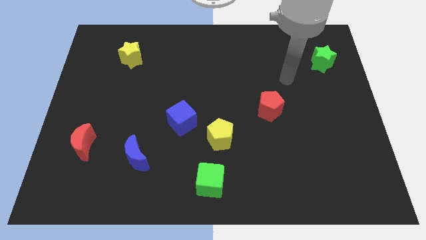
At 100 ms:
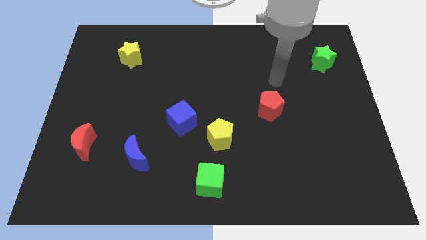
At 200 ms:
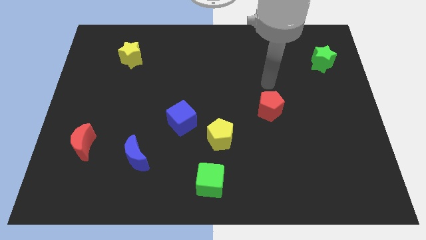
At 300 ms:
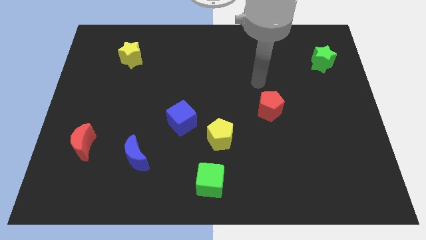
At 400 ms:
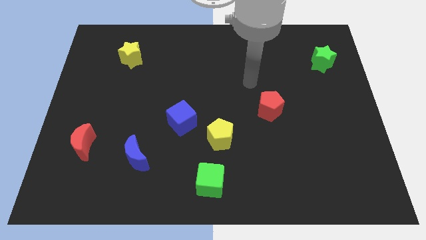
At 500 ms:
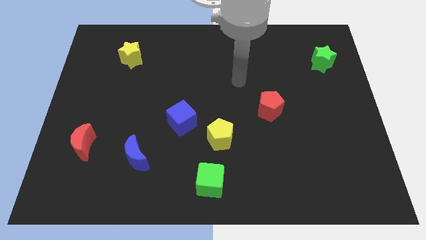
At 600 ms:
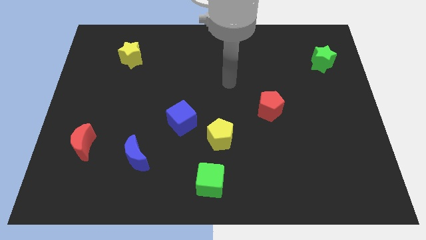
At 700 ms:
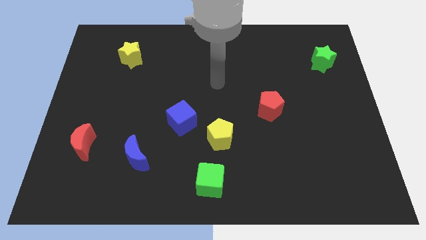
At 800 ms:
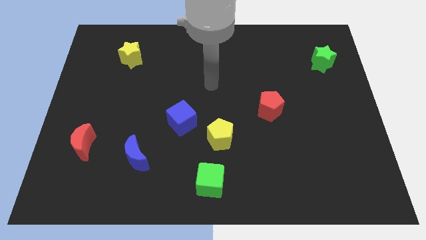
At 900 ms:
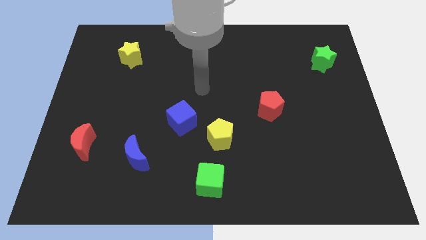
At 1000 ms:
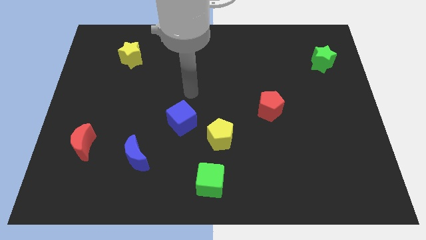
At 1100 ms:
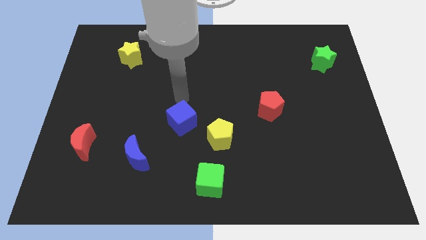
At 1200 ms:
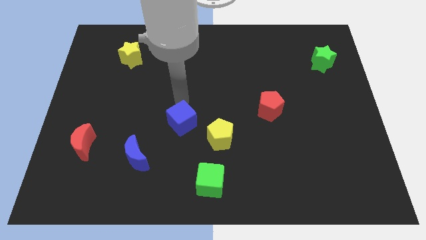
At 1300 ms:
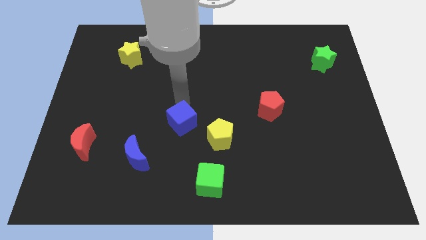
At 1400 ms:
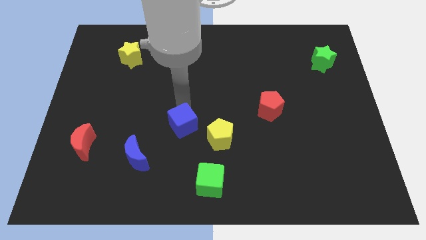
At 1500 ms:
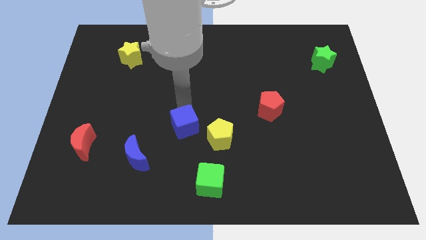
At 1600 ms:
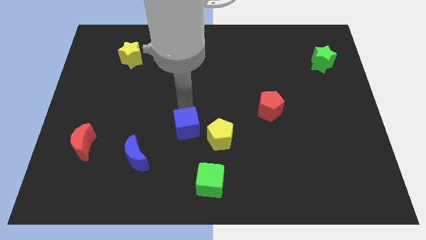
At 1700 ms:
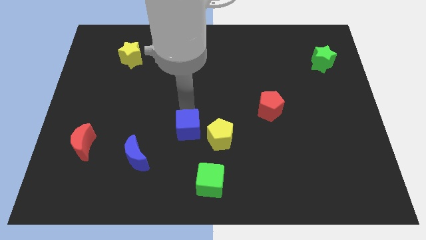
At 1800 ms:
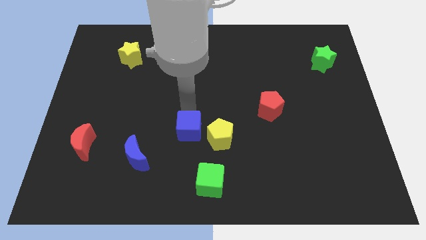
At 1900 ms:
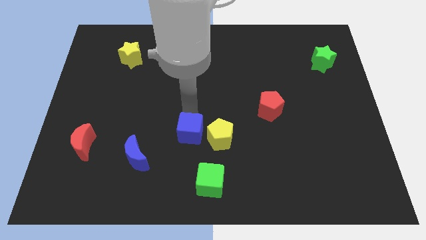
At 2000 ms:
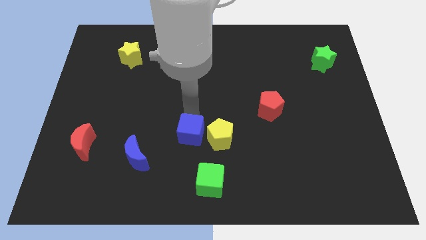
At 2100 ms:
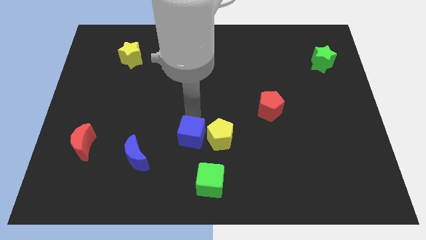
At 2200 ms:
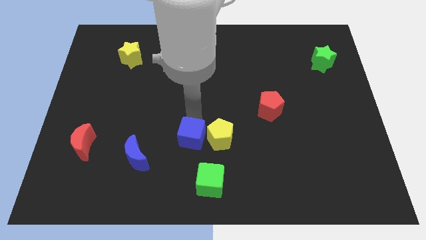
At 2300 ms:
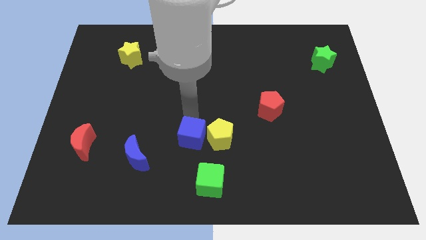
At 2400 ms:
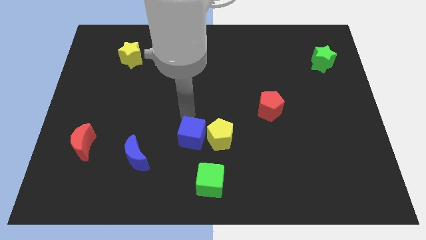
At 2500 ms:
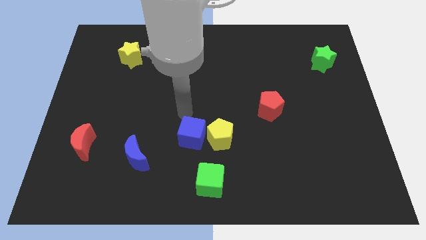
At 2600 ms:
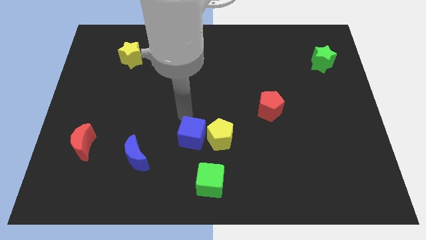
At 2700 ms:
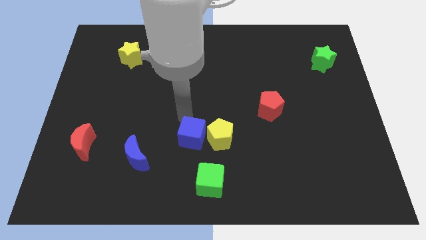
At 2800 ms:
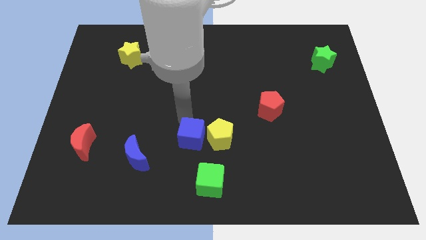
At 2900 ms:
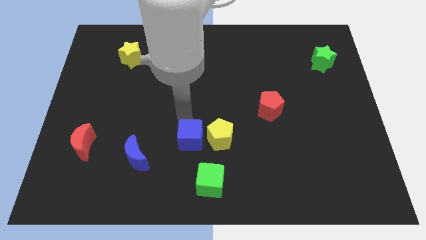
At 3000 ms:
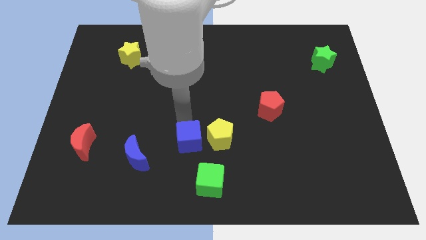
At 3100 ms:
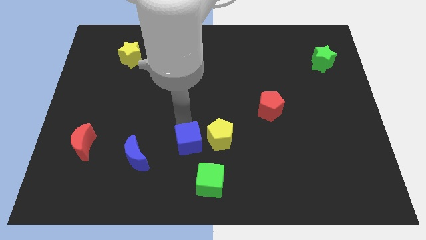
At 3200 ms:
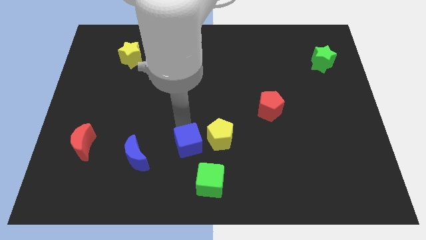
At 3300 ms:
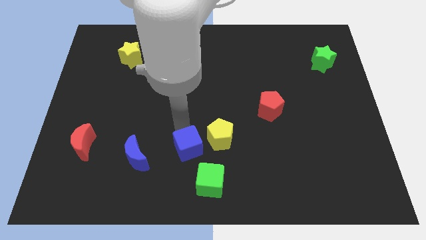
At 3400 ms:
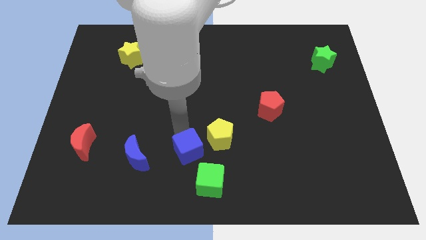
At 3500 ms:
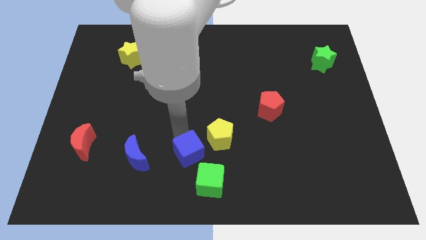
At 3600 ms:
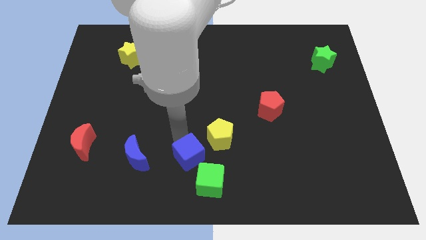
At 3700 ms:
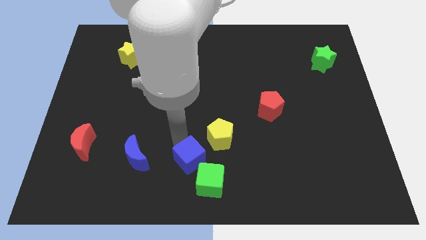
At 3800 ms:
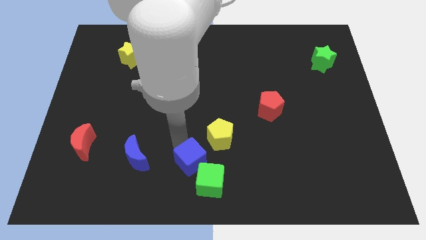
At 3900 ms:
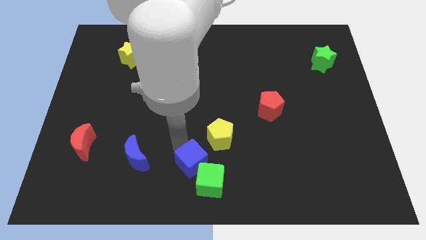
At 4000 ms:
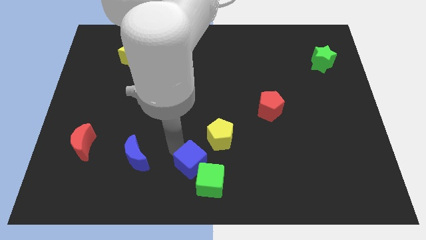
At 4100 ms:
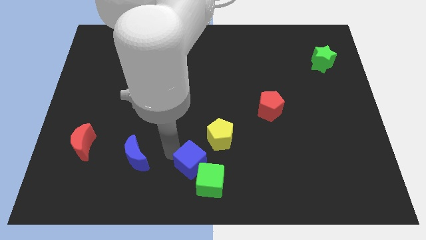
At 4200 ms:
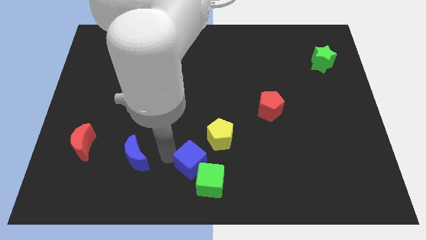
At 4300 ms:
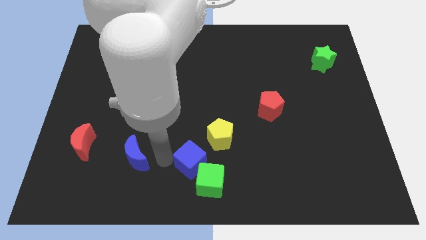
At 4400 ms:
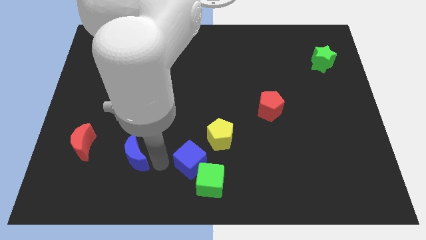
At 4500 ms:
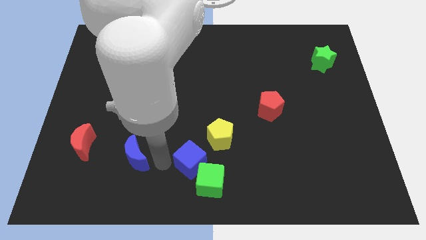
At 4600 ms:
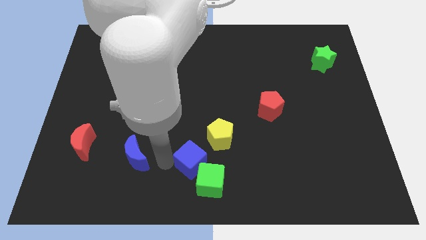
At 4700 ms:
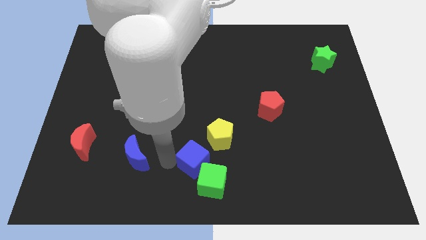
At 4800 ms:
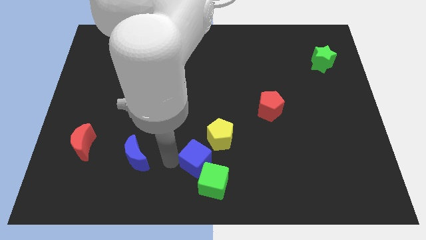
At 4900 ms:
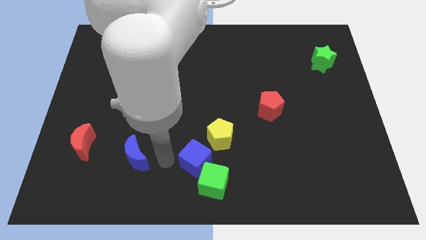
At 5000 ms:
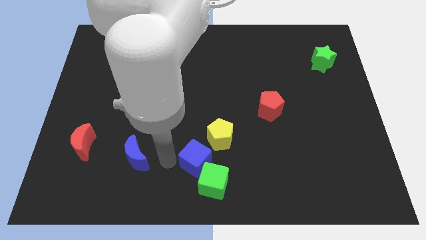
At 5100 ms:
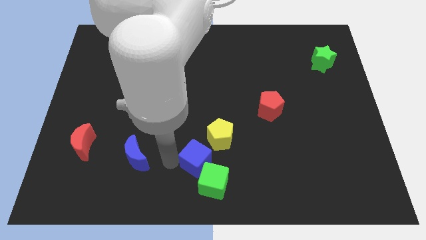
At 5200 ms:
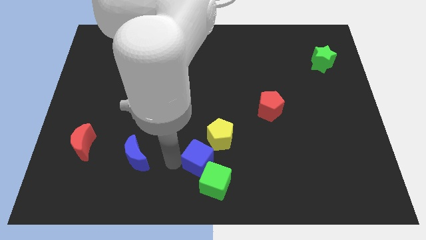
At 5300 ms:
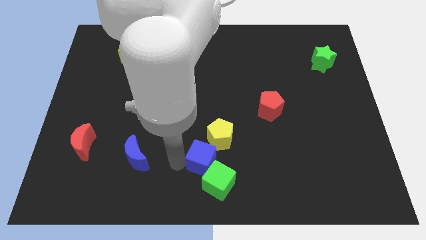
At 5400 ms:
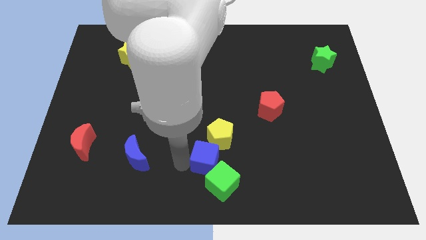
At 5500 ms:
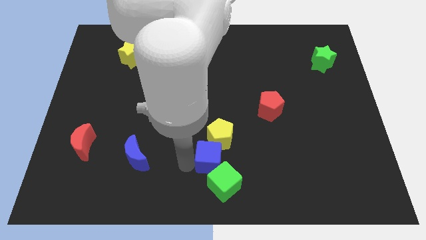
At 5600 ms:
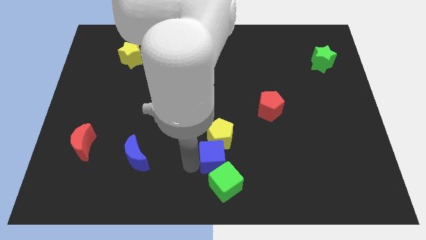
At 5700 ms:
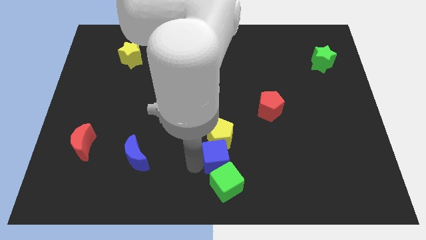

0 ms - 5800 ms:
push the blue cube to the bottom right side of the yellow pentagon

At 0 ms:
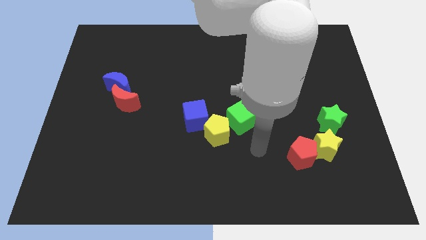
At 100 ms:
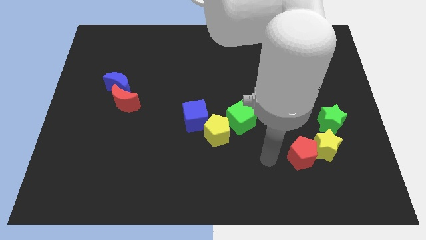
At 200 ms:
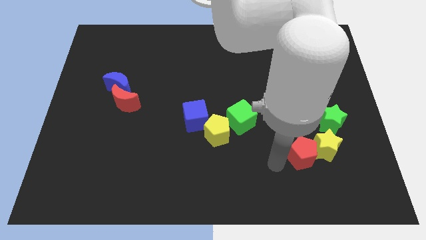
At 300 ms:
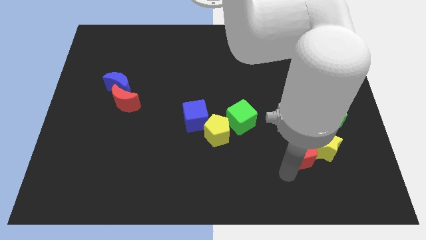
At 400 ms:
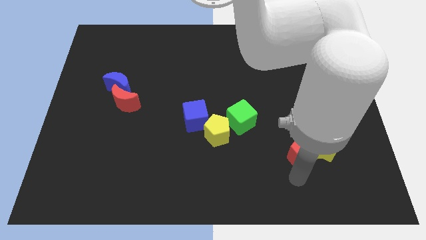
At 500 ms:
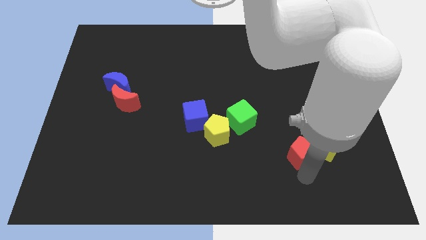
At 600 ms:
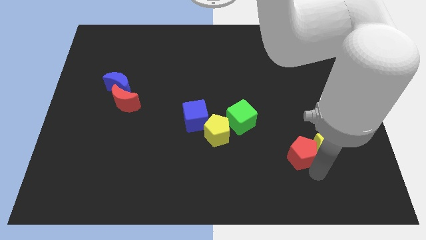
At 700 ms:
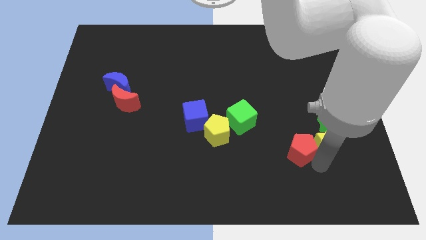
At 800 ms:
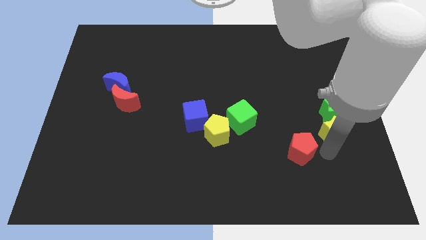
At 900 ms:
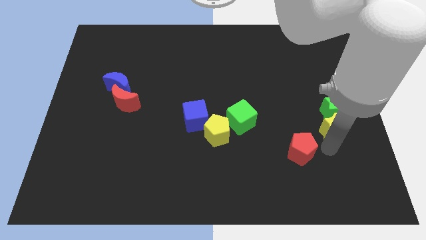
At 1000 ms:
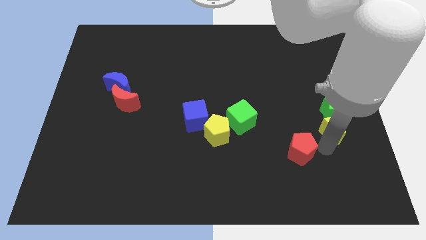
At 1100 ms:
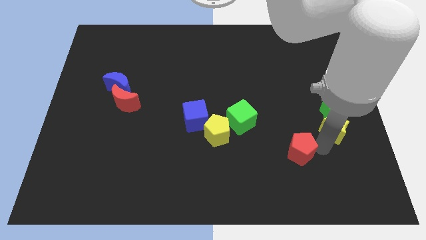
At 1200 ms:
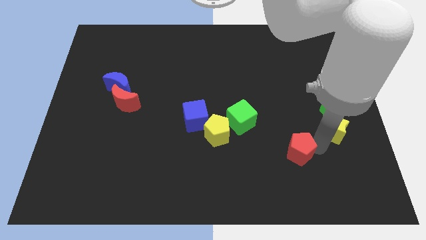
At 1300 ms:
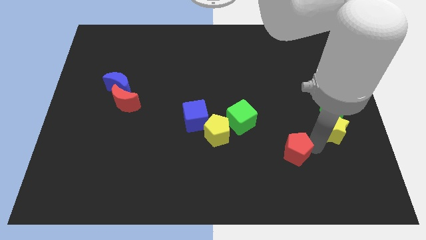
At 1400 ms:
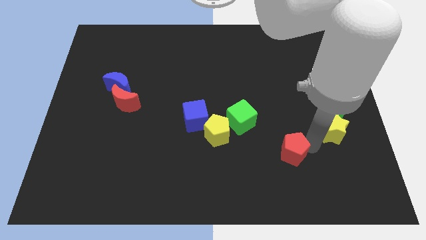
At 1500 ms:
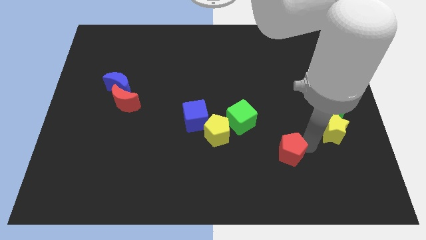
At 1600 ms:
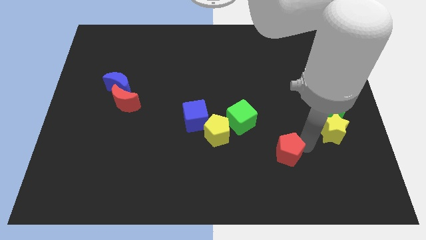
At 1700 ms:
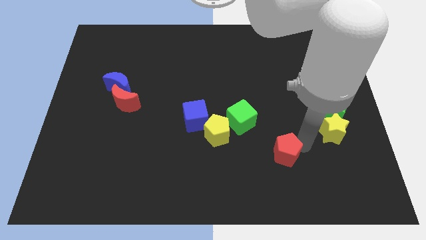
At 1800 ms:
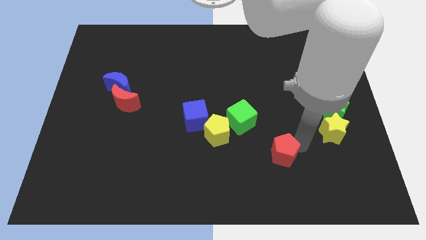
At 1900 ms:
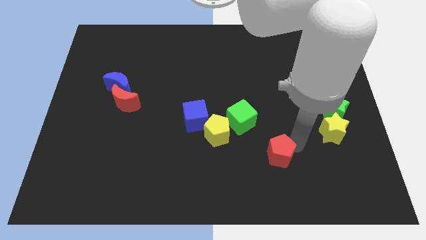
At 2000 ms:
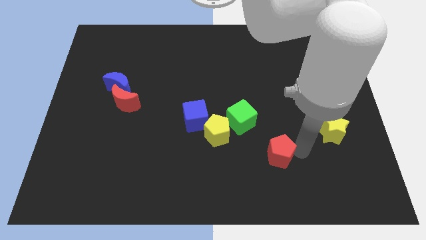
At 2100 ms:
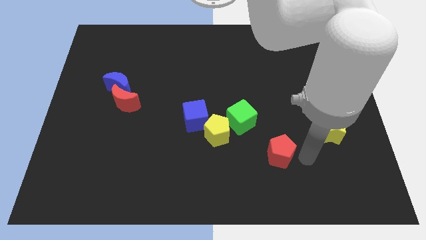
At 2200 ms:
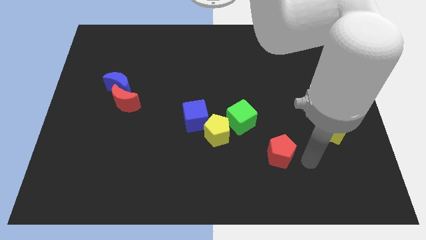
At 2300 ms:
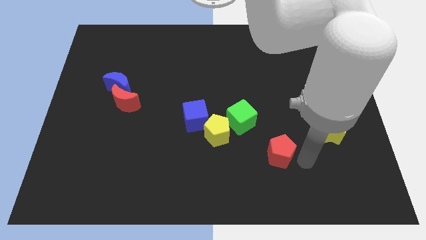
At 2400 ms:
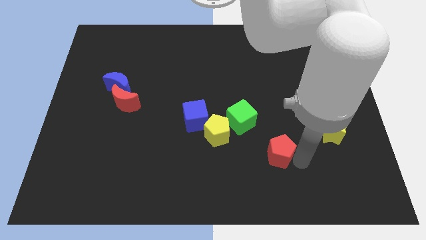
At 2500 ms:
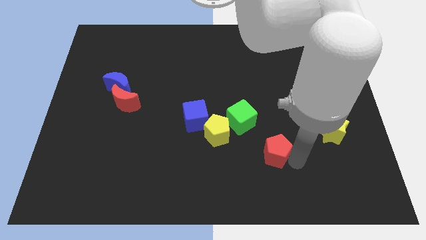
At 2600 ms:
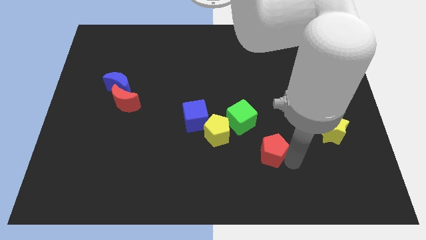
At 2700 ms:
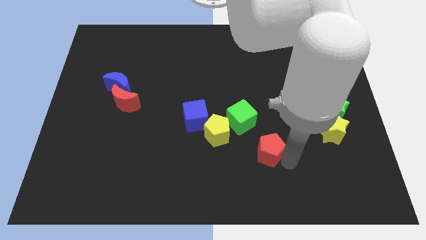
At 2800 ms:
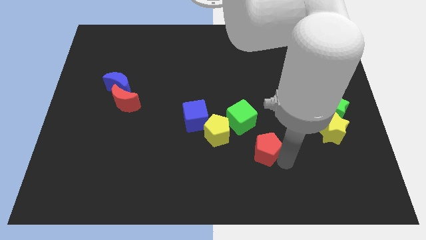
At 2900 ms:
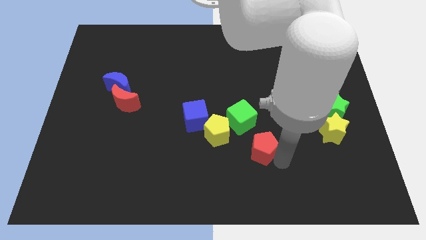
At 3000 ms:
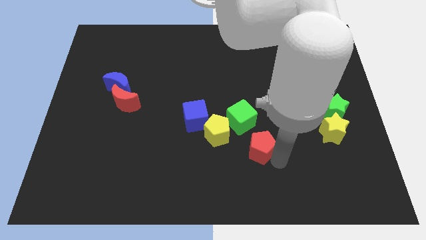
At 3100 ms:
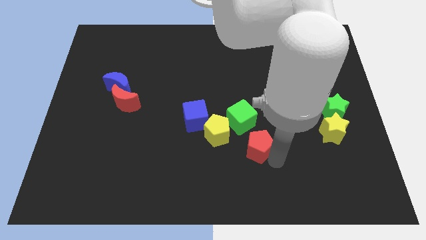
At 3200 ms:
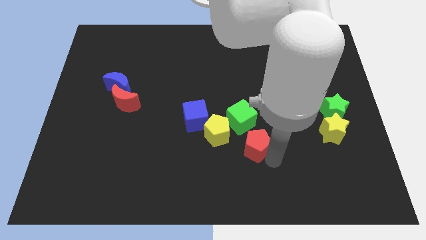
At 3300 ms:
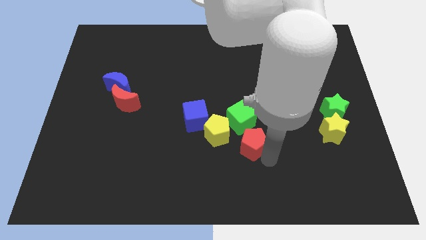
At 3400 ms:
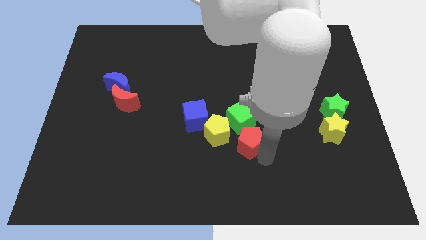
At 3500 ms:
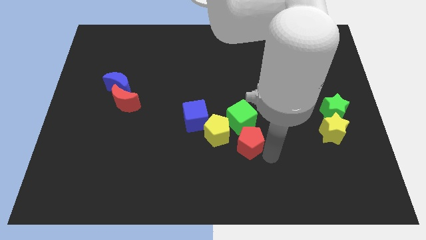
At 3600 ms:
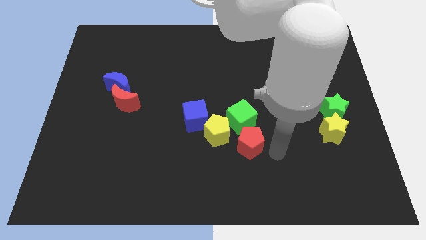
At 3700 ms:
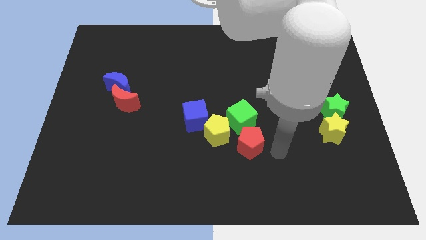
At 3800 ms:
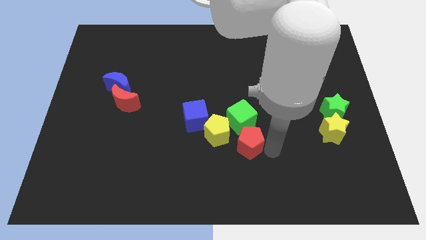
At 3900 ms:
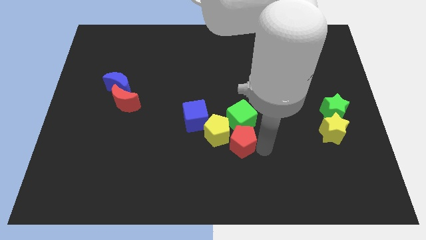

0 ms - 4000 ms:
put the red pentagon to the bottom right of the blue cube
